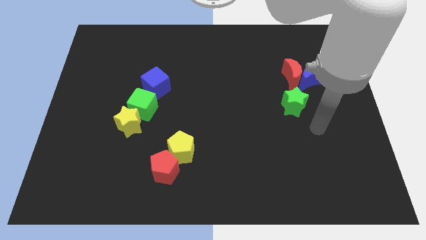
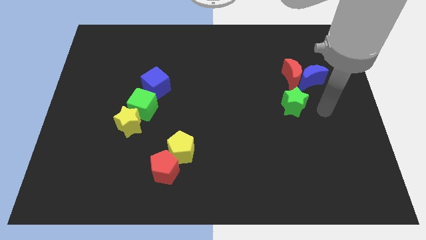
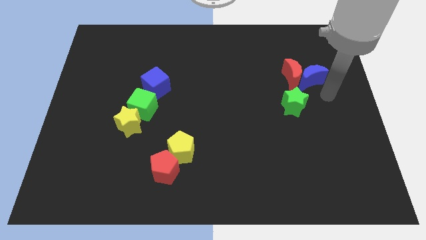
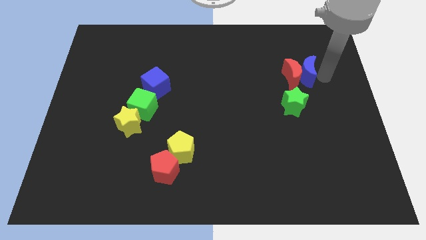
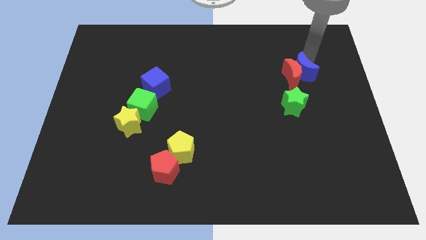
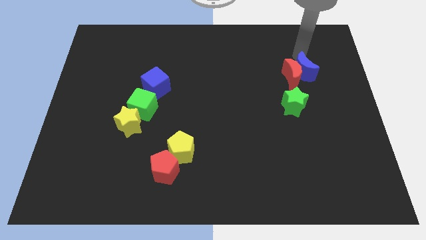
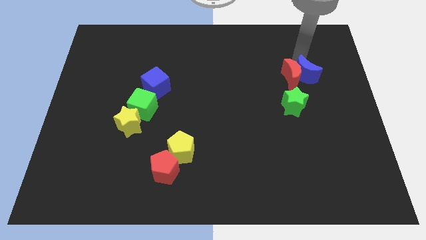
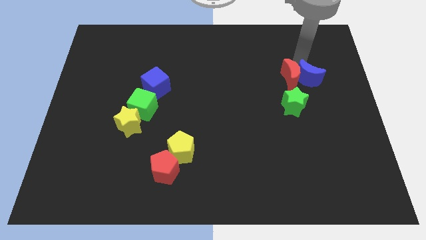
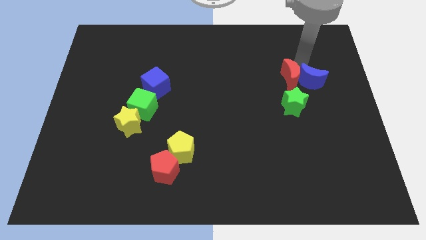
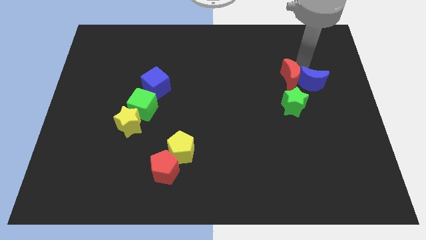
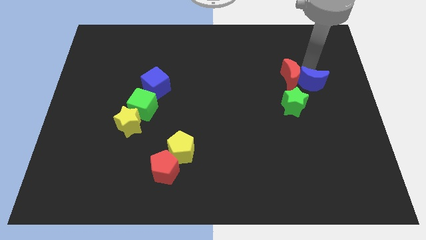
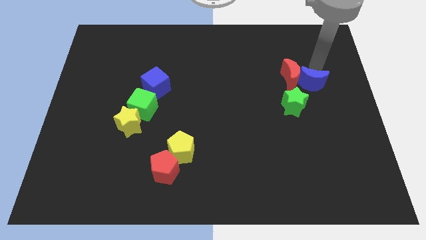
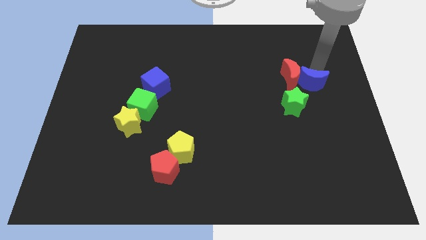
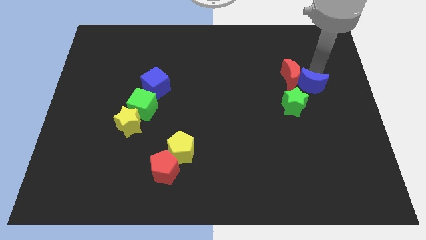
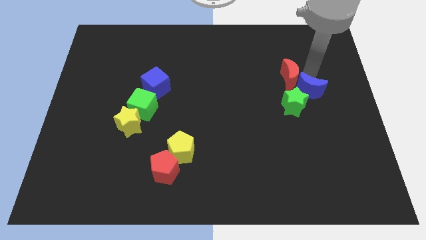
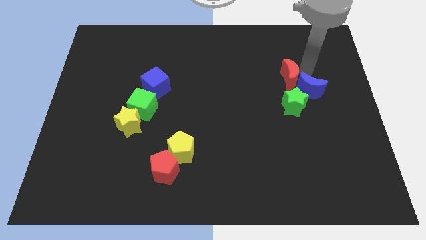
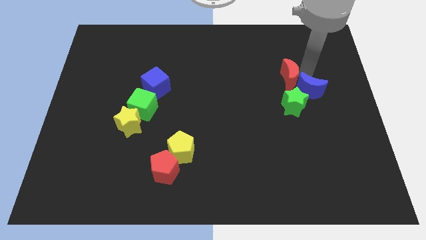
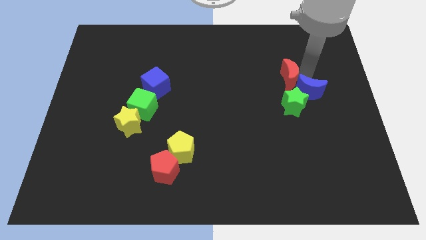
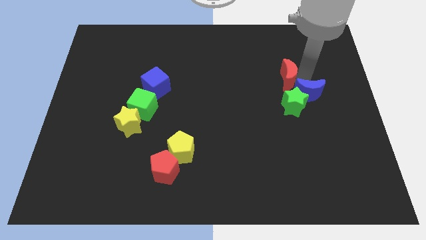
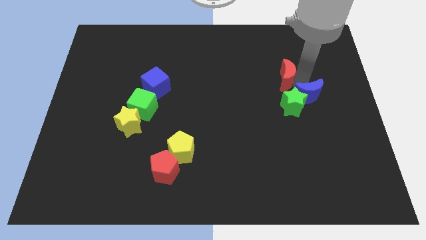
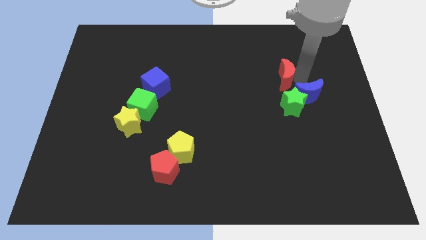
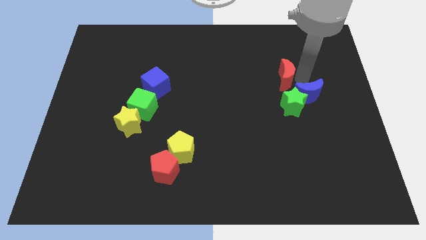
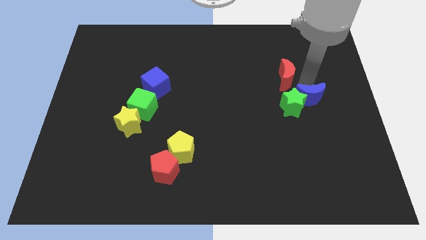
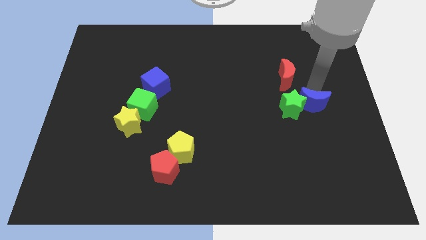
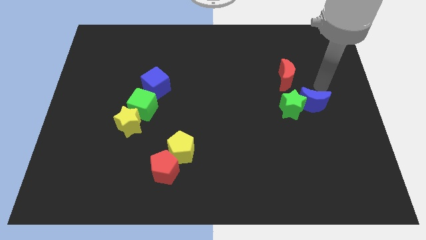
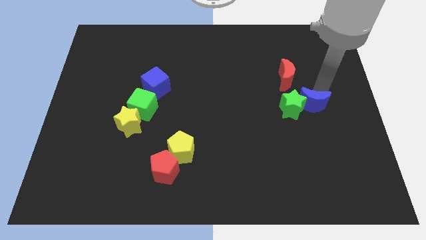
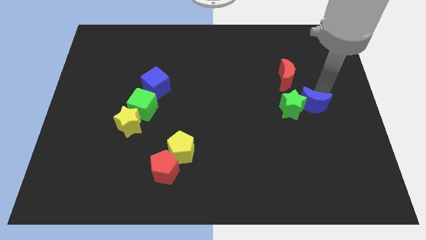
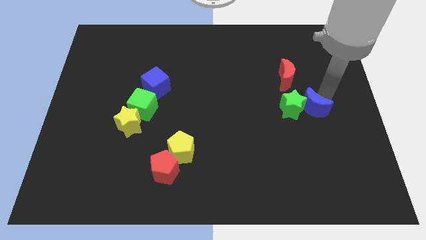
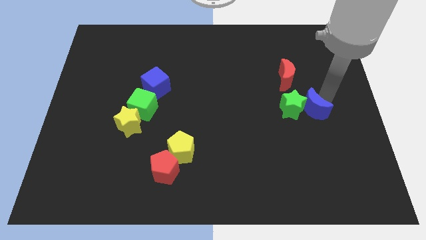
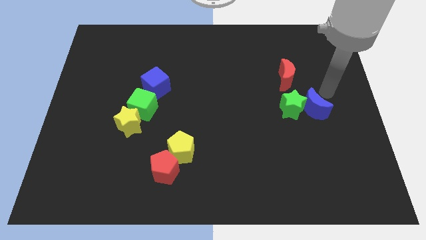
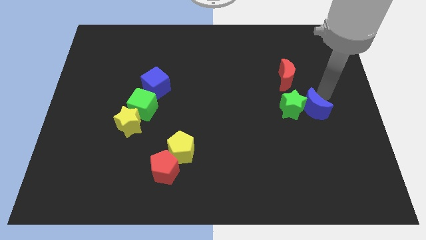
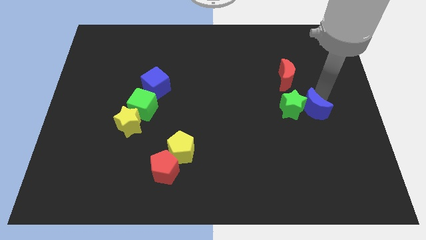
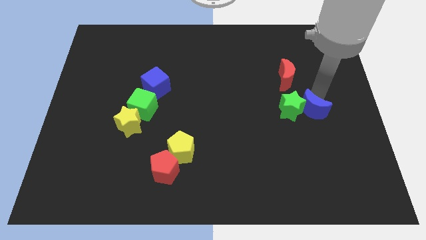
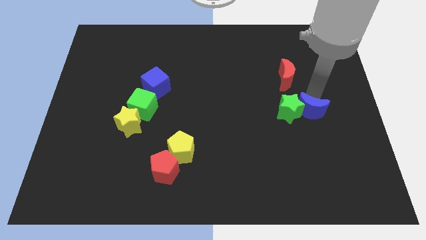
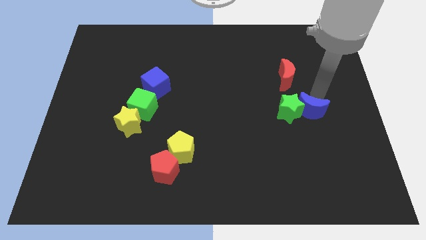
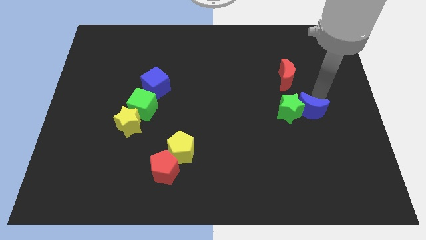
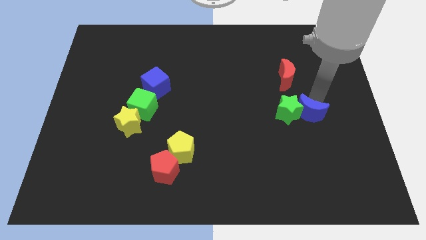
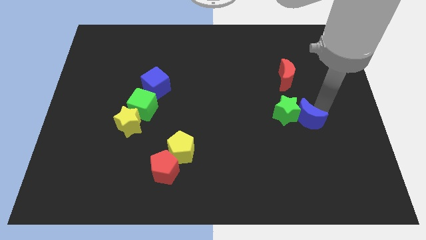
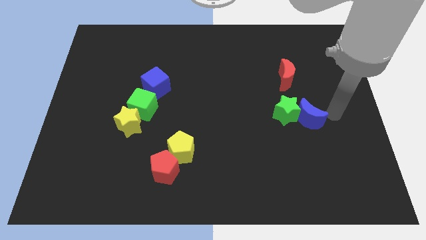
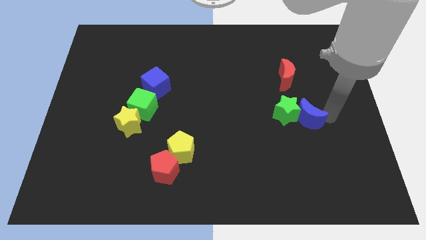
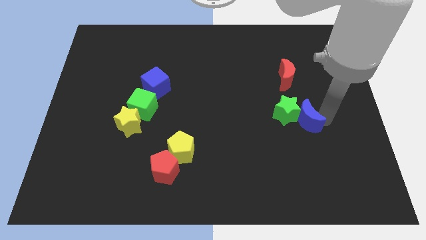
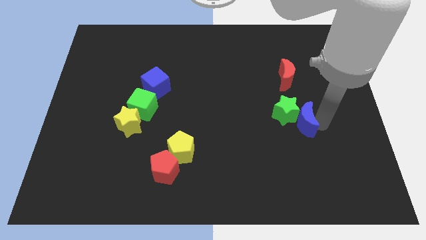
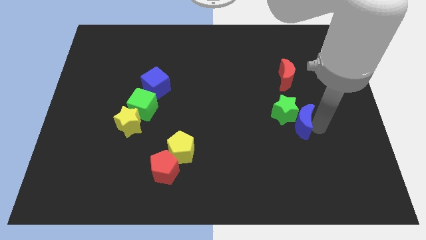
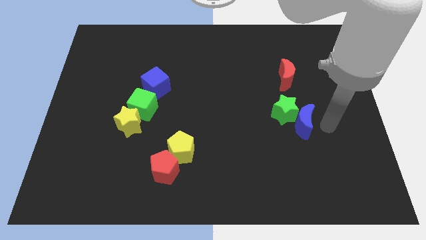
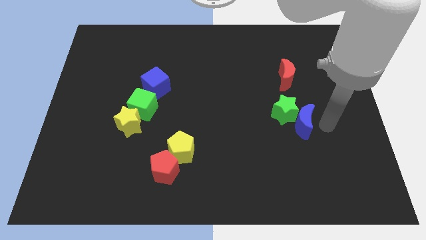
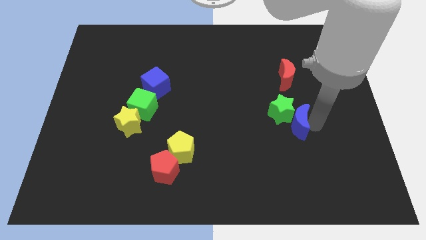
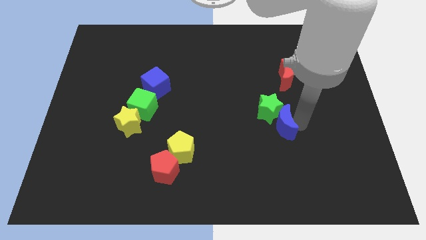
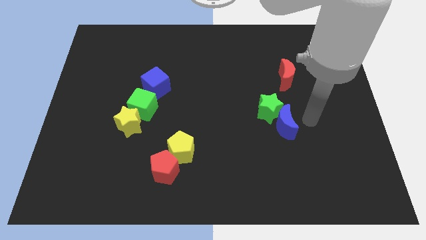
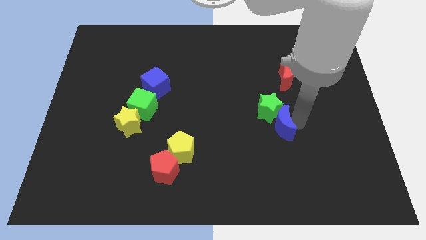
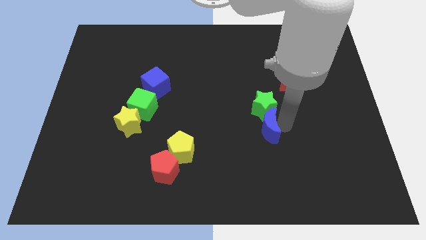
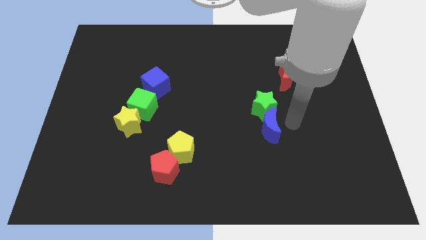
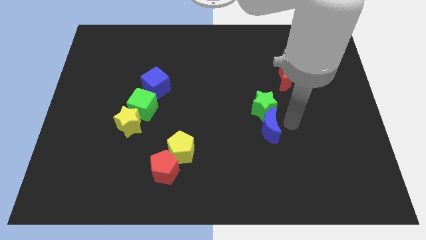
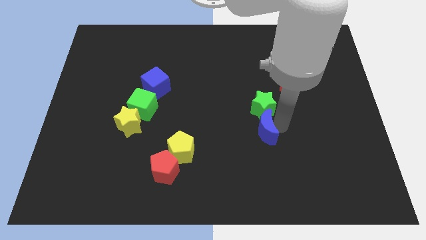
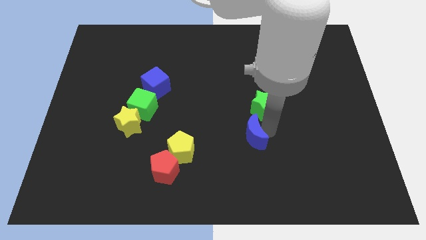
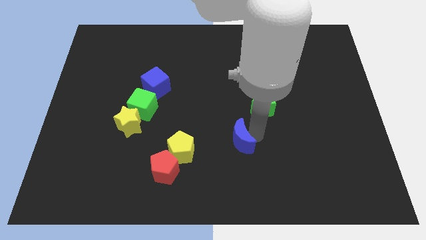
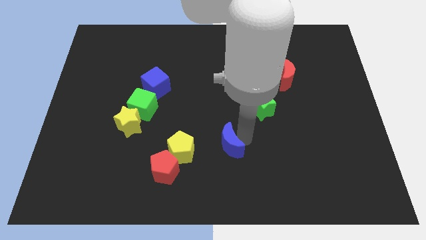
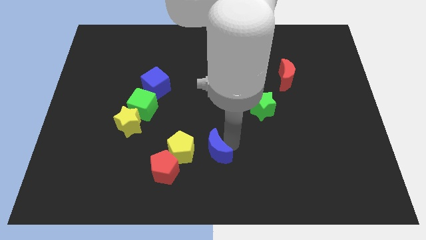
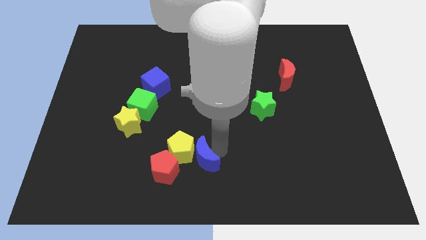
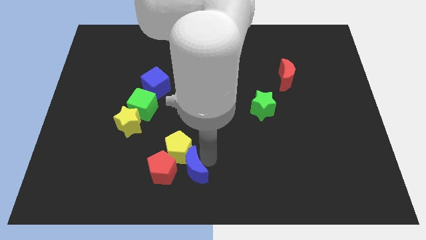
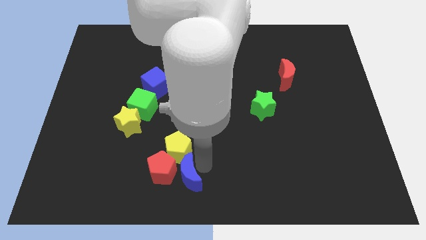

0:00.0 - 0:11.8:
push the blue moon next to the red pentagon
